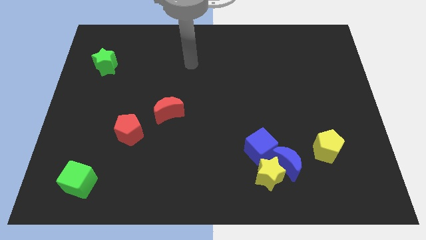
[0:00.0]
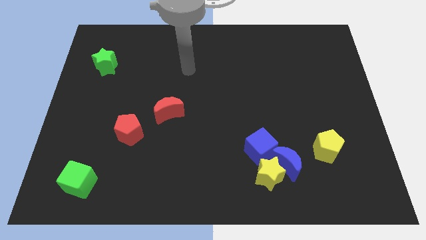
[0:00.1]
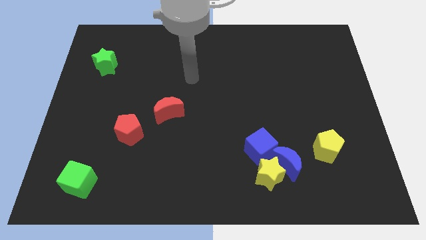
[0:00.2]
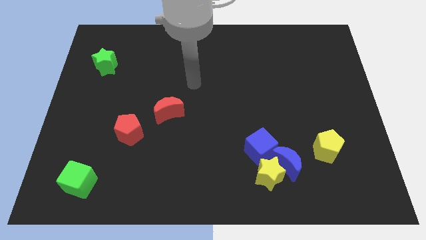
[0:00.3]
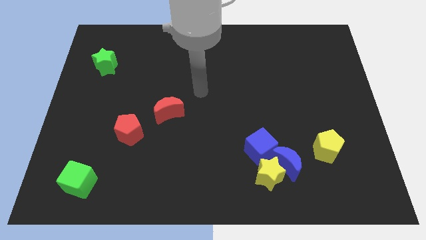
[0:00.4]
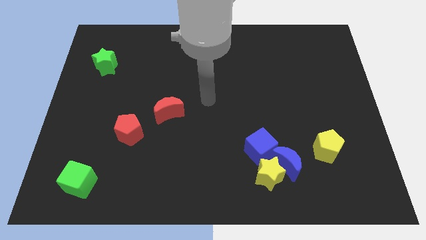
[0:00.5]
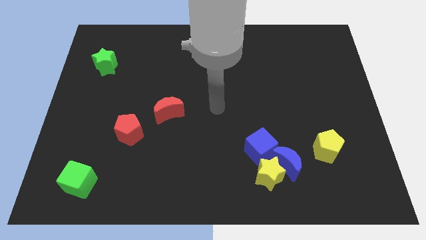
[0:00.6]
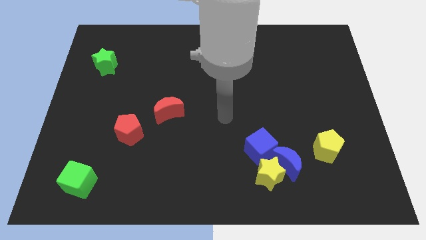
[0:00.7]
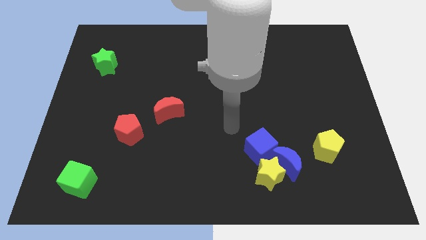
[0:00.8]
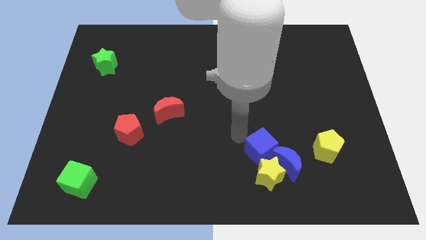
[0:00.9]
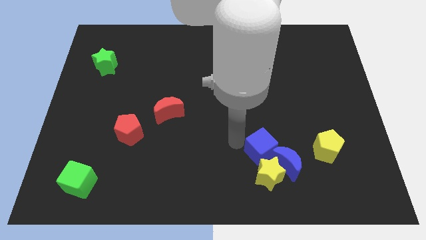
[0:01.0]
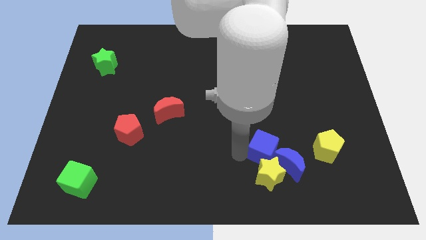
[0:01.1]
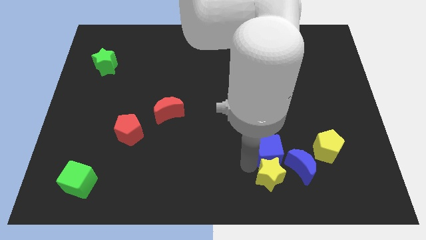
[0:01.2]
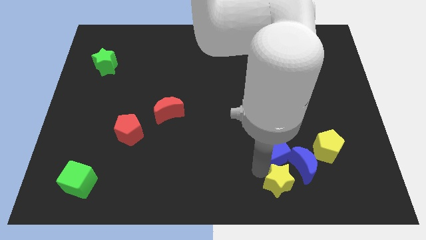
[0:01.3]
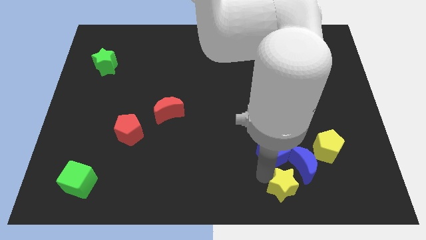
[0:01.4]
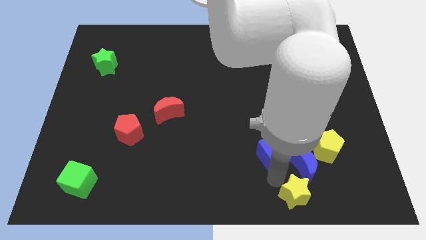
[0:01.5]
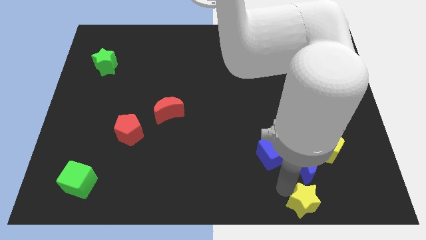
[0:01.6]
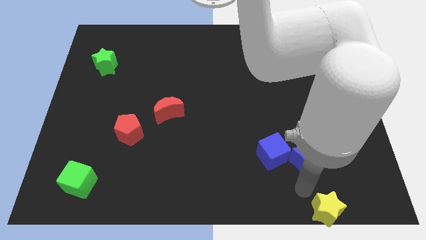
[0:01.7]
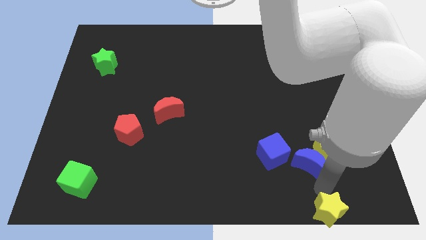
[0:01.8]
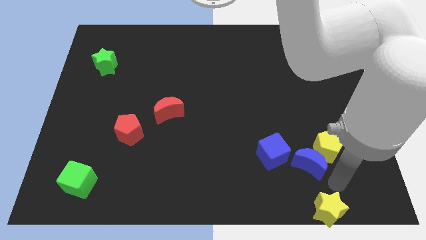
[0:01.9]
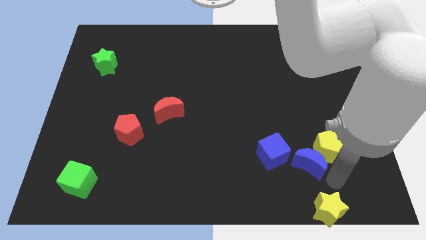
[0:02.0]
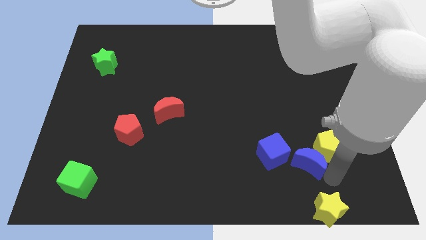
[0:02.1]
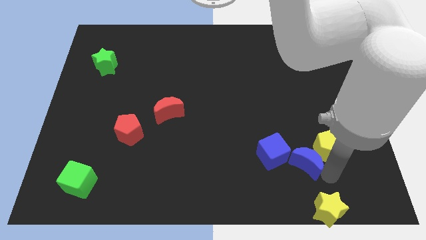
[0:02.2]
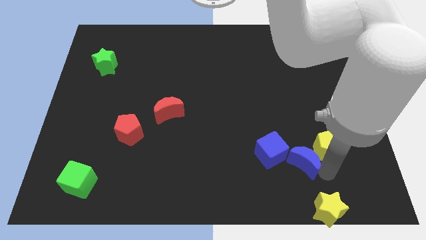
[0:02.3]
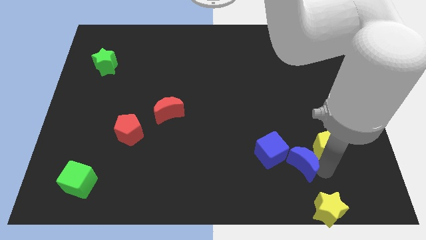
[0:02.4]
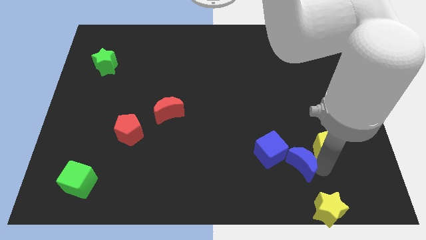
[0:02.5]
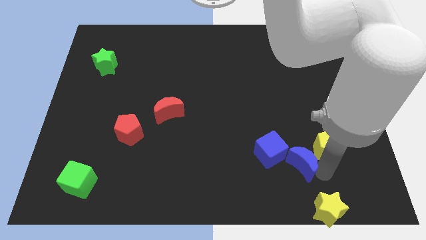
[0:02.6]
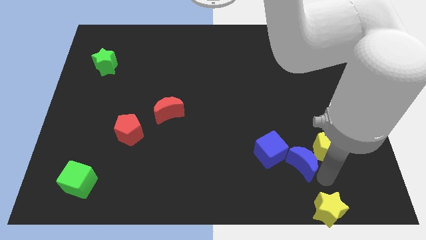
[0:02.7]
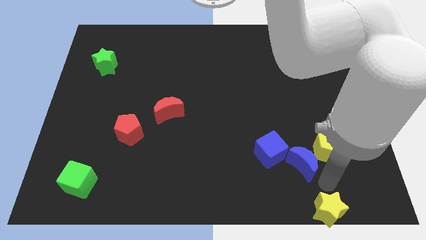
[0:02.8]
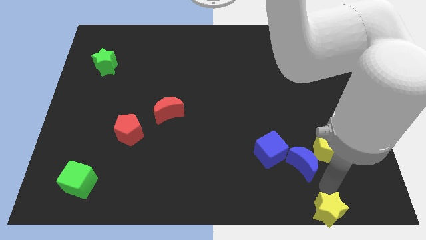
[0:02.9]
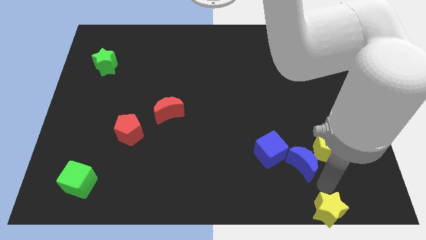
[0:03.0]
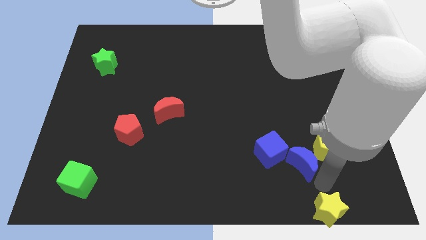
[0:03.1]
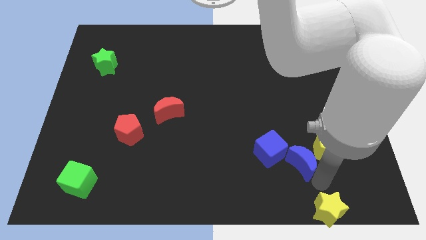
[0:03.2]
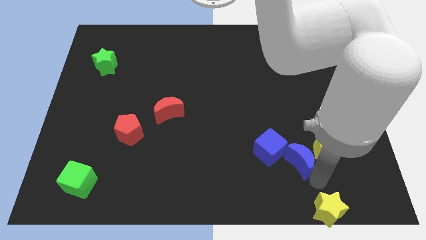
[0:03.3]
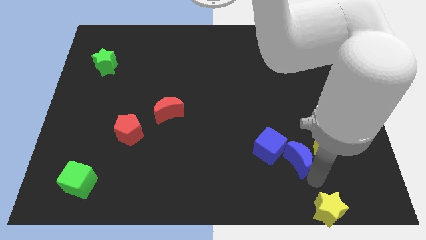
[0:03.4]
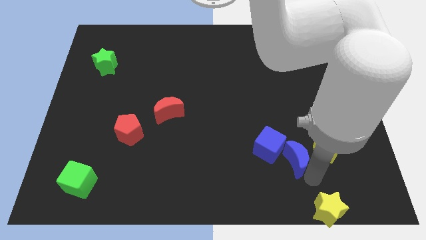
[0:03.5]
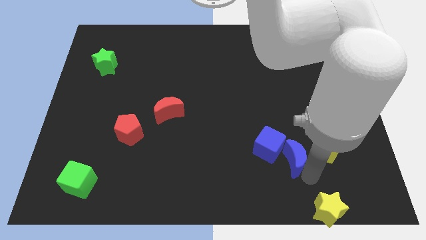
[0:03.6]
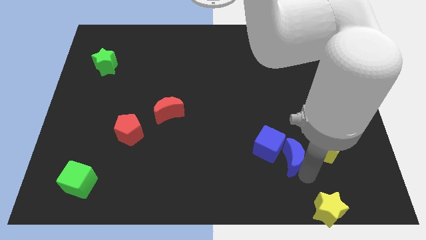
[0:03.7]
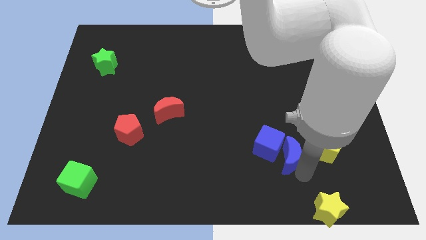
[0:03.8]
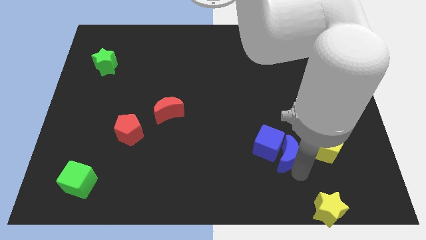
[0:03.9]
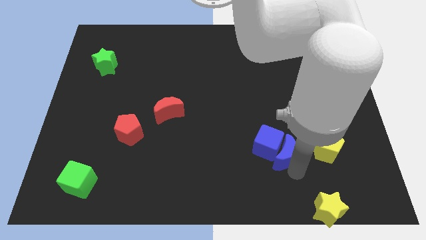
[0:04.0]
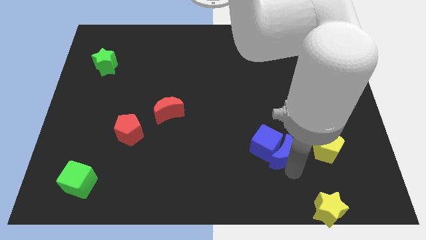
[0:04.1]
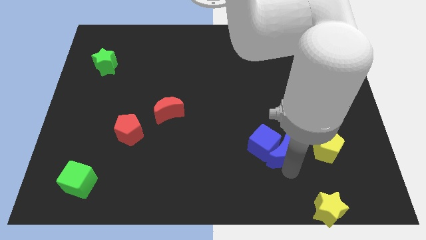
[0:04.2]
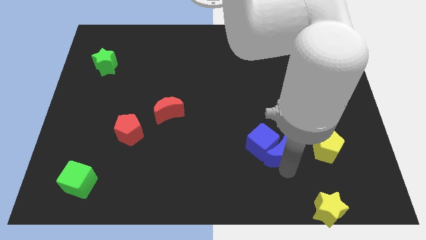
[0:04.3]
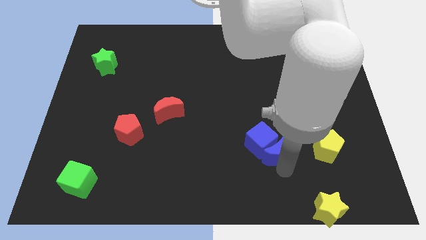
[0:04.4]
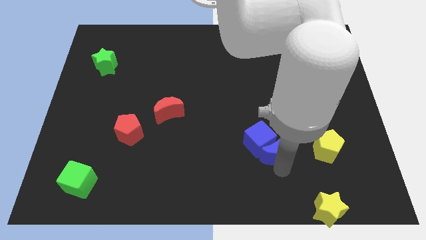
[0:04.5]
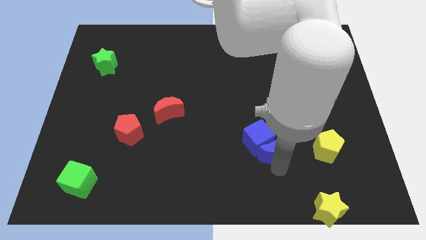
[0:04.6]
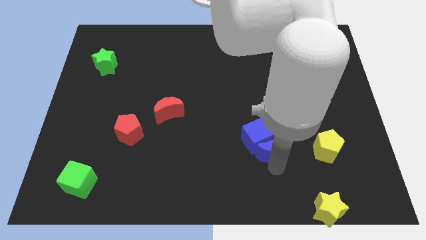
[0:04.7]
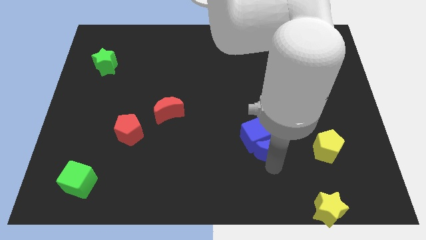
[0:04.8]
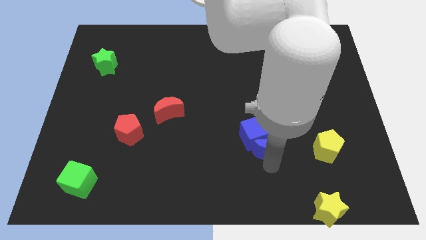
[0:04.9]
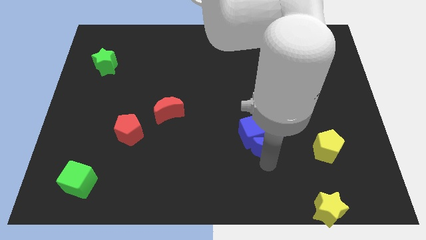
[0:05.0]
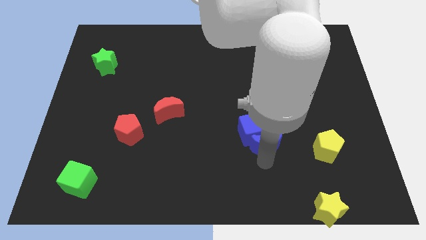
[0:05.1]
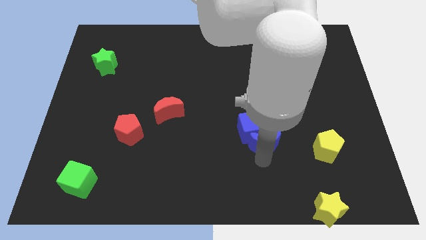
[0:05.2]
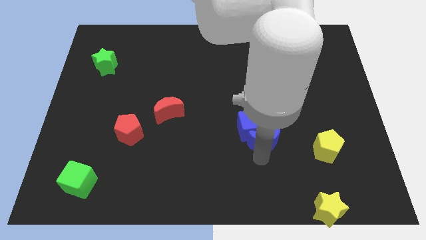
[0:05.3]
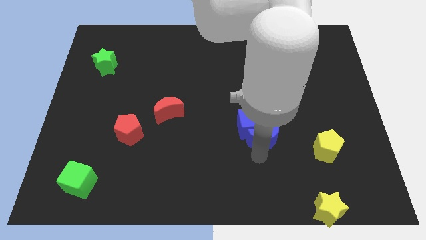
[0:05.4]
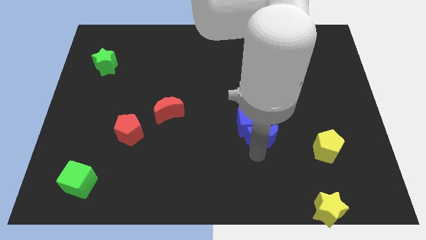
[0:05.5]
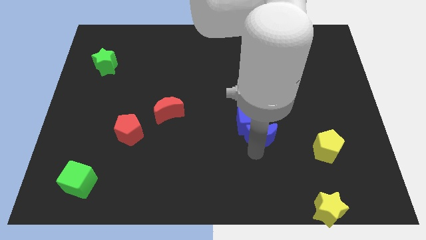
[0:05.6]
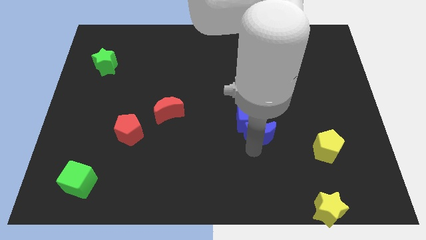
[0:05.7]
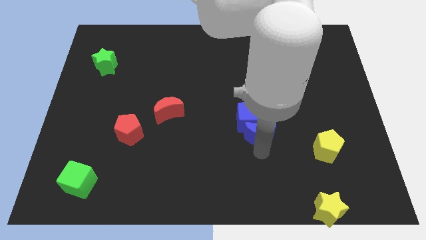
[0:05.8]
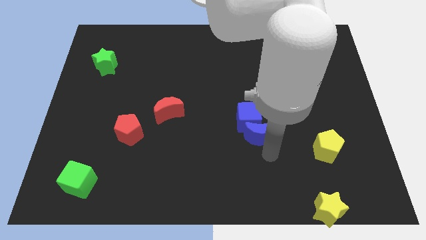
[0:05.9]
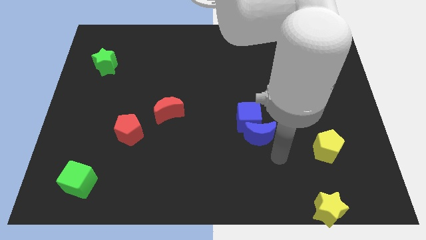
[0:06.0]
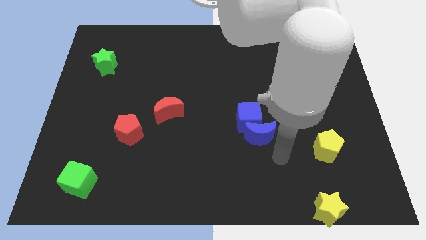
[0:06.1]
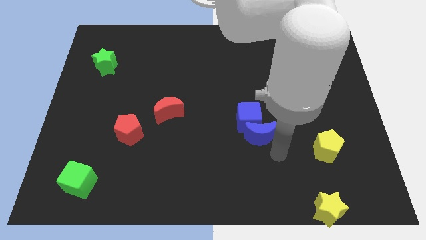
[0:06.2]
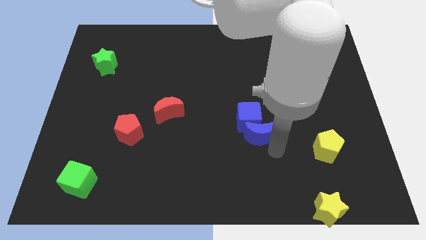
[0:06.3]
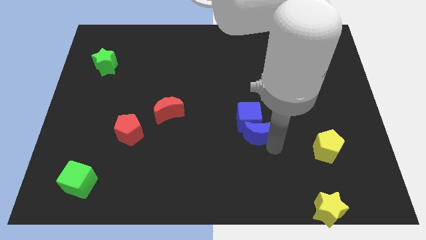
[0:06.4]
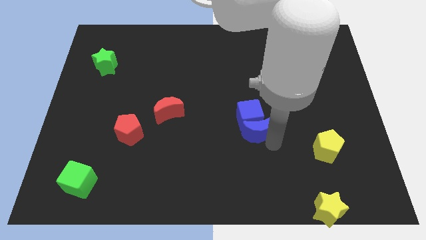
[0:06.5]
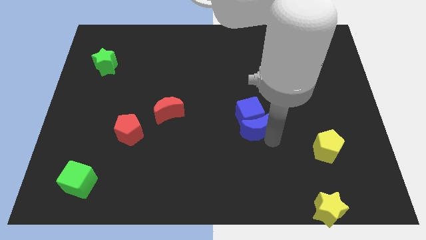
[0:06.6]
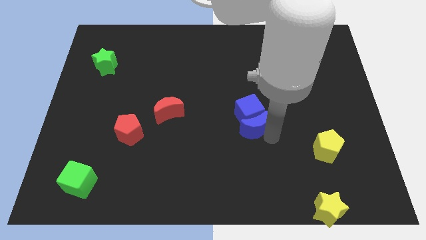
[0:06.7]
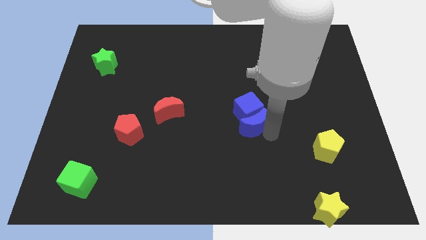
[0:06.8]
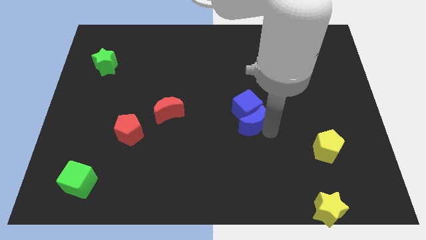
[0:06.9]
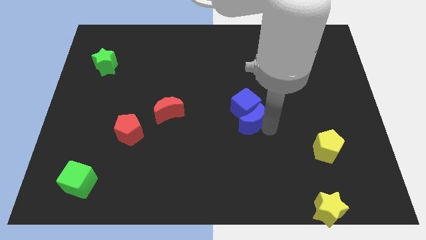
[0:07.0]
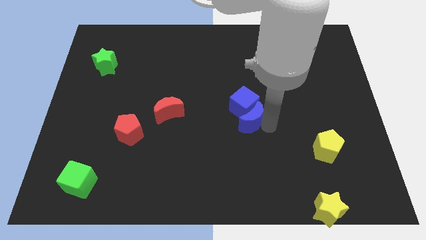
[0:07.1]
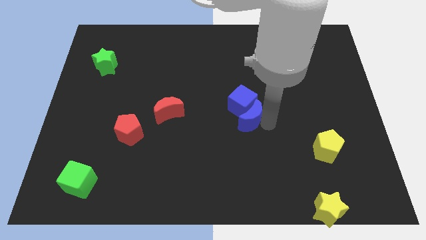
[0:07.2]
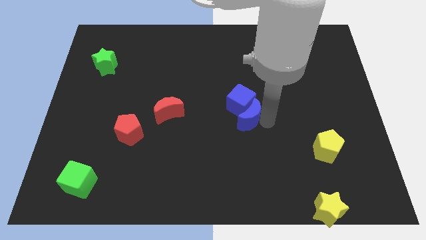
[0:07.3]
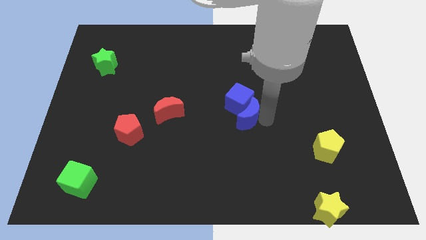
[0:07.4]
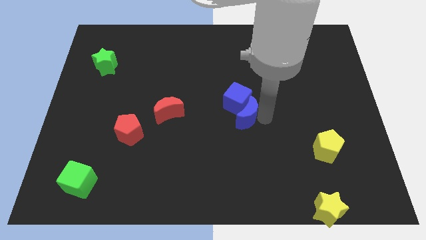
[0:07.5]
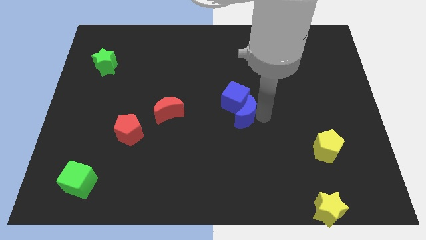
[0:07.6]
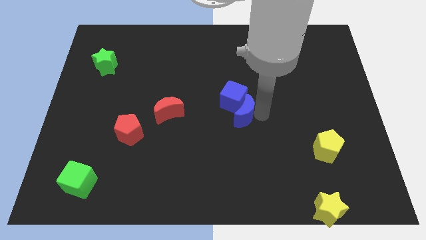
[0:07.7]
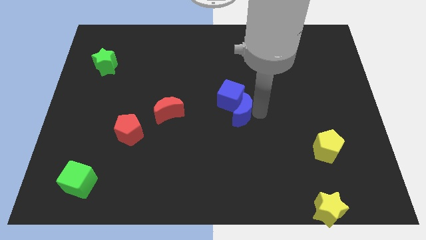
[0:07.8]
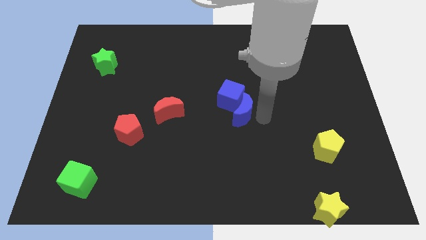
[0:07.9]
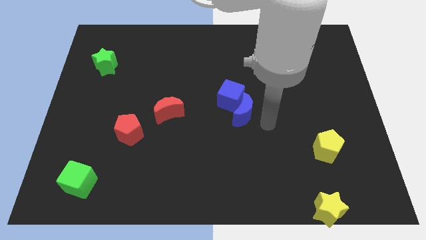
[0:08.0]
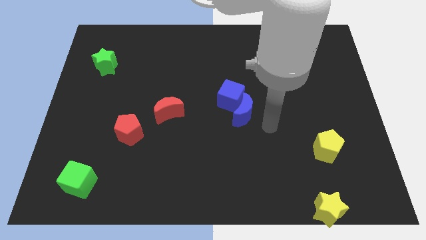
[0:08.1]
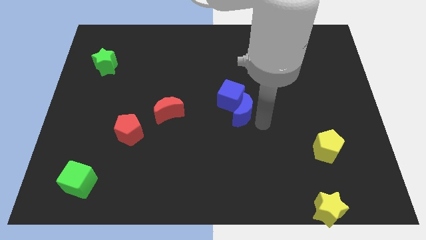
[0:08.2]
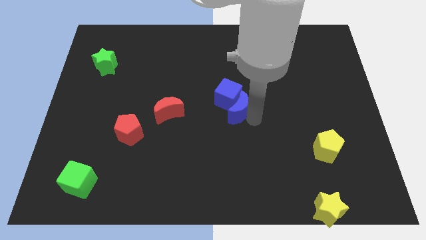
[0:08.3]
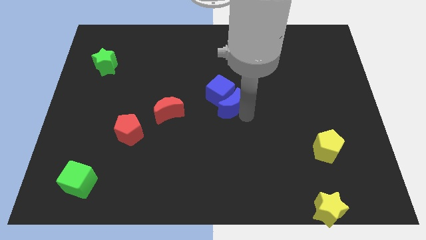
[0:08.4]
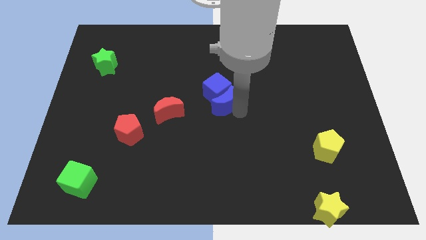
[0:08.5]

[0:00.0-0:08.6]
push the blue moon up and to the left diagonally

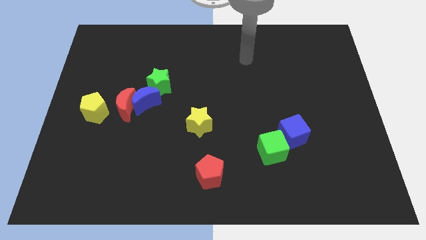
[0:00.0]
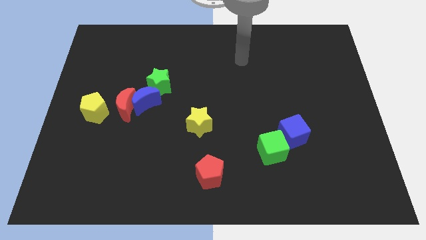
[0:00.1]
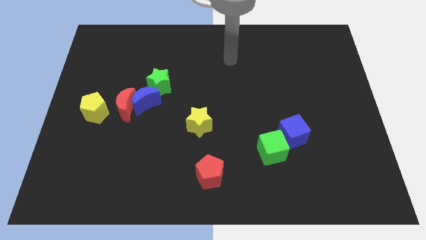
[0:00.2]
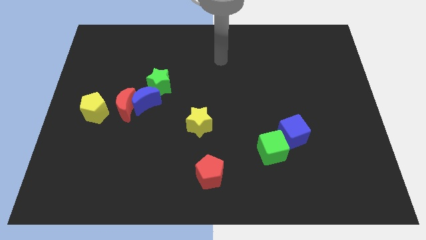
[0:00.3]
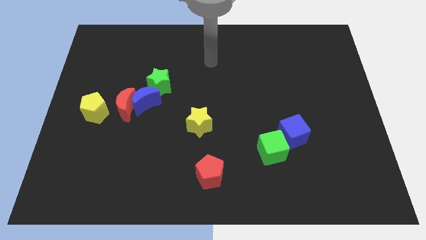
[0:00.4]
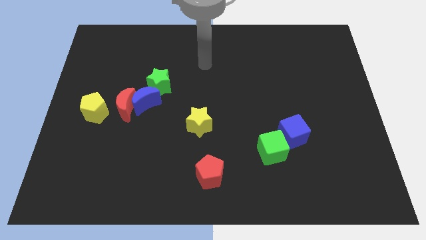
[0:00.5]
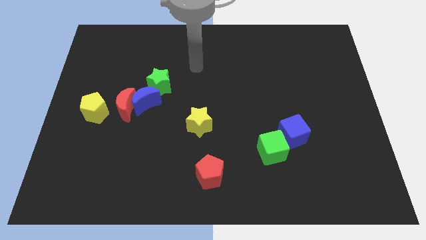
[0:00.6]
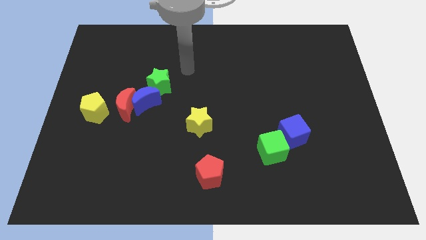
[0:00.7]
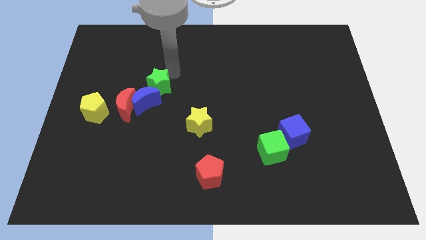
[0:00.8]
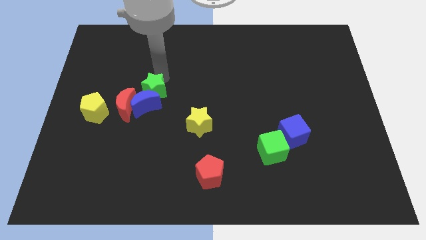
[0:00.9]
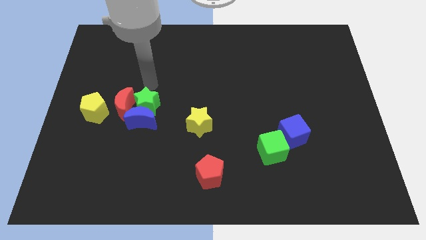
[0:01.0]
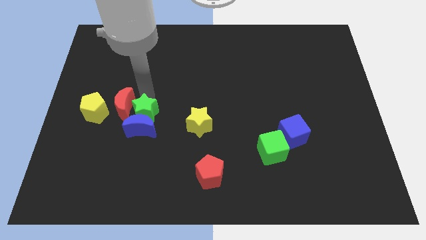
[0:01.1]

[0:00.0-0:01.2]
slide the blue moon down somewhat
